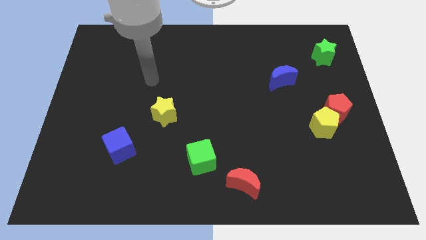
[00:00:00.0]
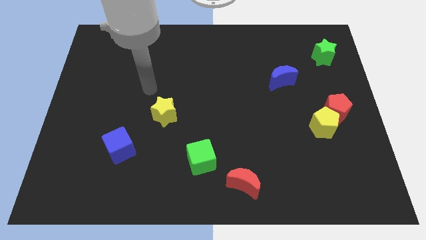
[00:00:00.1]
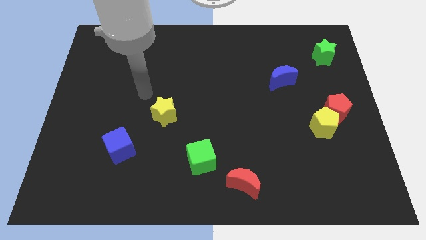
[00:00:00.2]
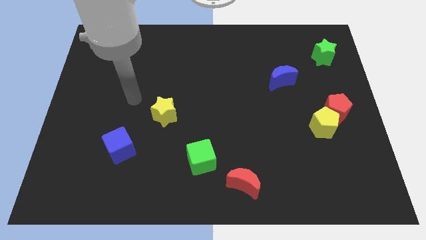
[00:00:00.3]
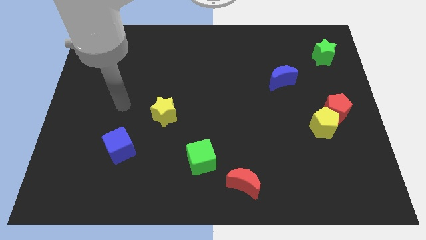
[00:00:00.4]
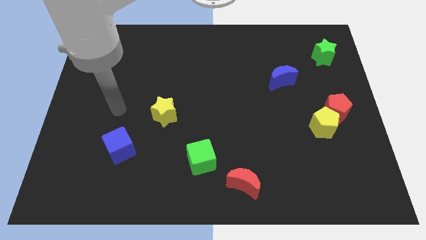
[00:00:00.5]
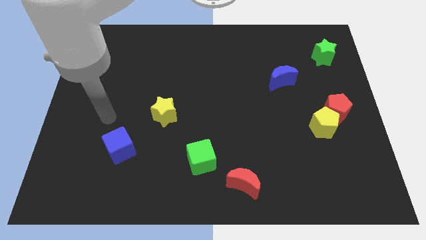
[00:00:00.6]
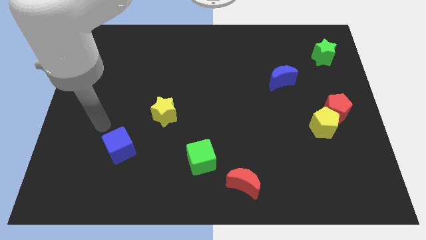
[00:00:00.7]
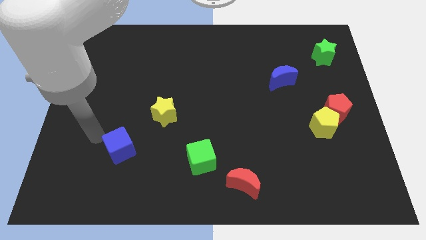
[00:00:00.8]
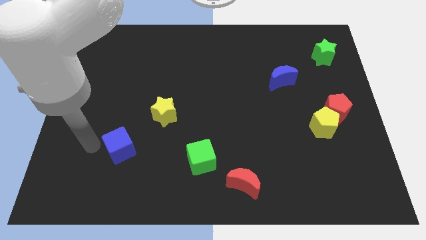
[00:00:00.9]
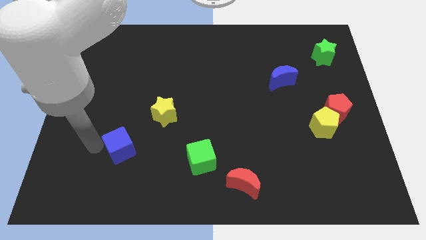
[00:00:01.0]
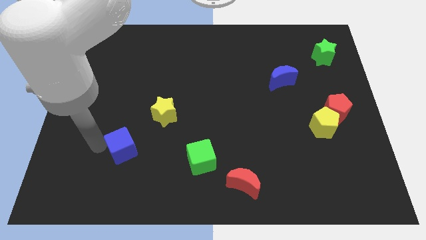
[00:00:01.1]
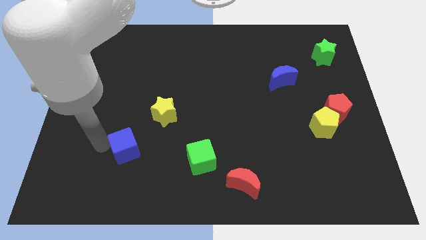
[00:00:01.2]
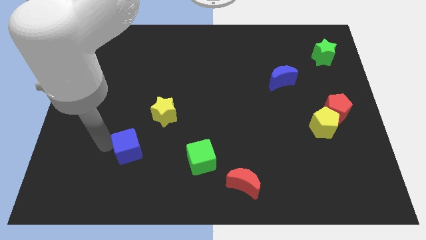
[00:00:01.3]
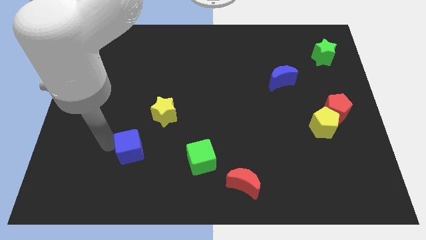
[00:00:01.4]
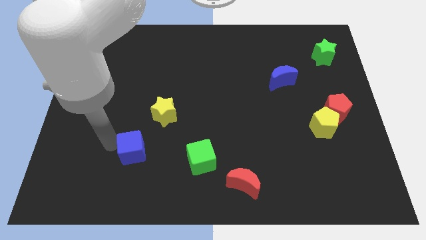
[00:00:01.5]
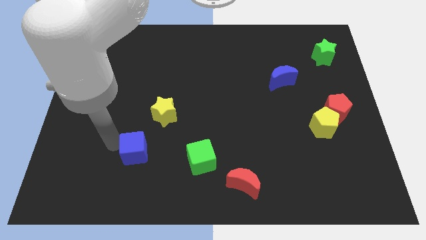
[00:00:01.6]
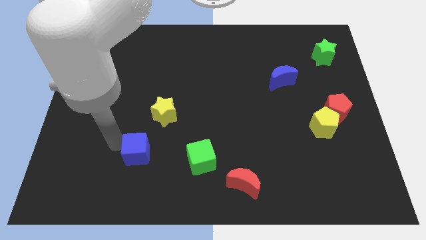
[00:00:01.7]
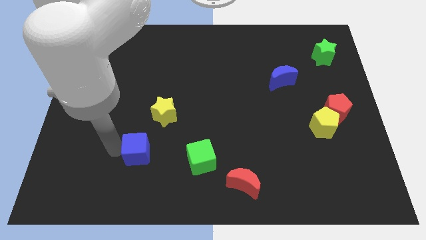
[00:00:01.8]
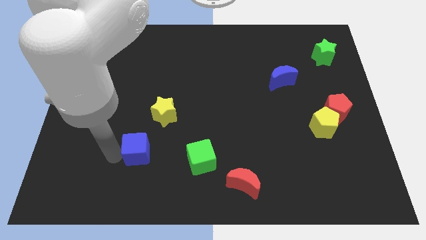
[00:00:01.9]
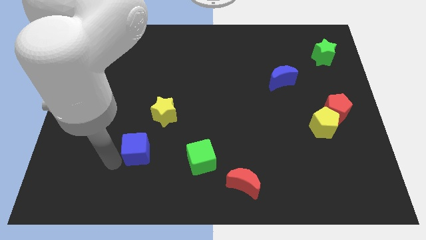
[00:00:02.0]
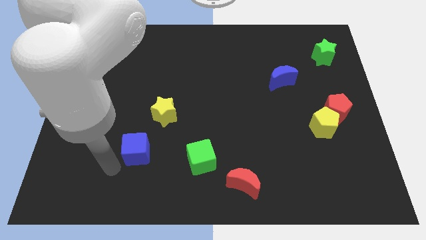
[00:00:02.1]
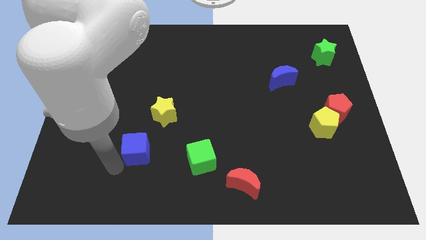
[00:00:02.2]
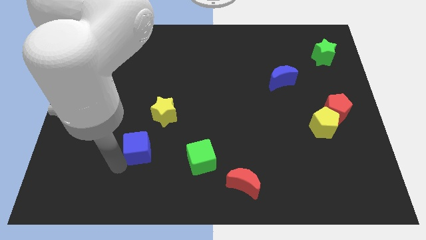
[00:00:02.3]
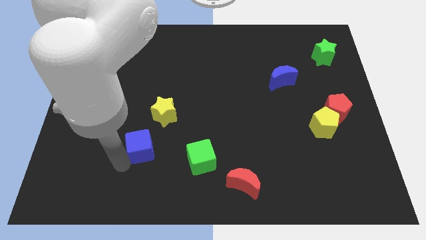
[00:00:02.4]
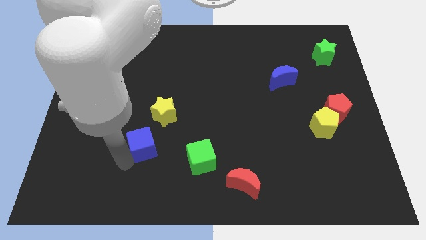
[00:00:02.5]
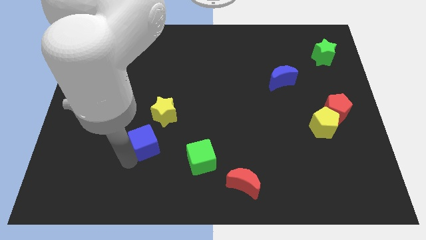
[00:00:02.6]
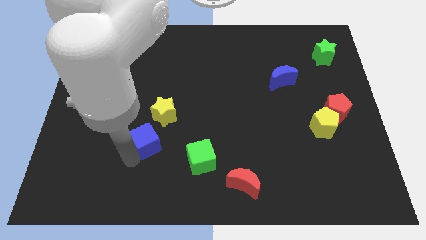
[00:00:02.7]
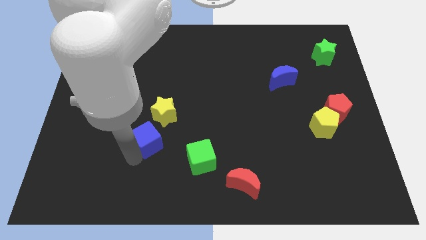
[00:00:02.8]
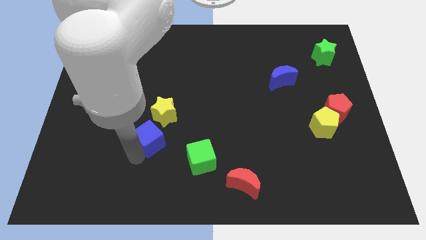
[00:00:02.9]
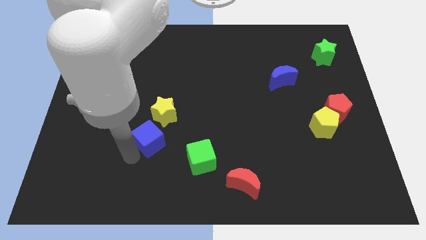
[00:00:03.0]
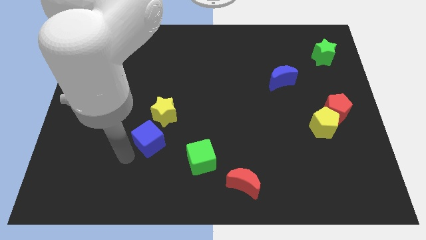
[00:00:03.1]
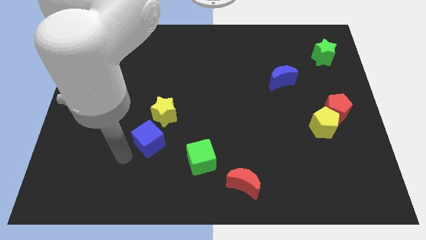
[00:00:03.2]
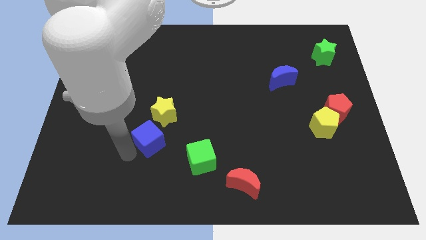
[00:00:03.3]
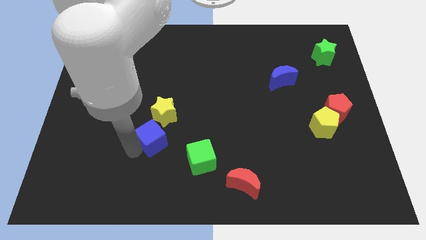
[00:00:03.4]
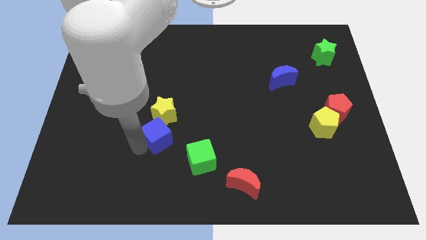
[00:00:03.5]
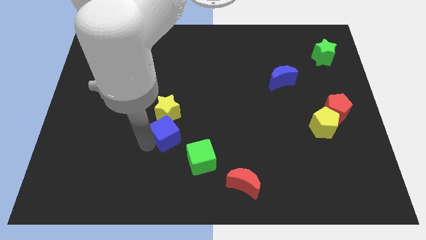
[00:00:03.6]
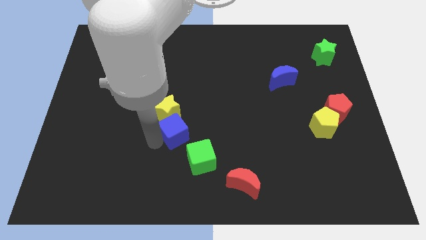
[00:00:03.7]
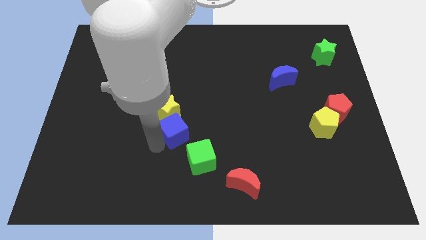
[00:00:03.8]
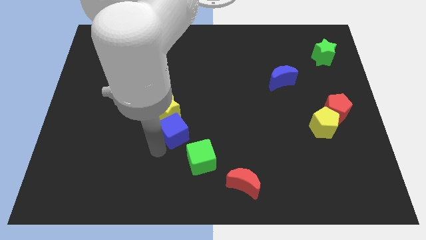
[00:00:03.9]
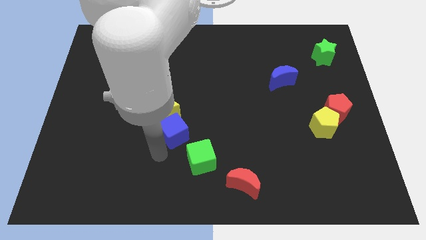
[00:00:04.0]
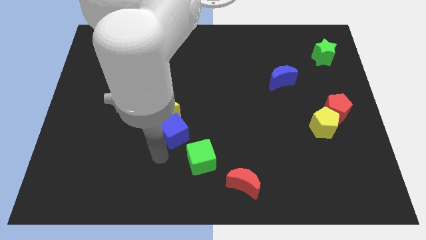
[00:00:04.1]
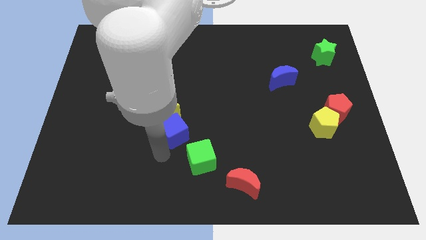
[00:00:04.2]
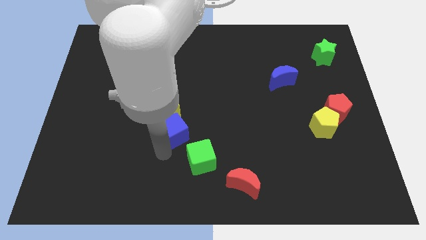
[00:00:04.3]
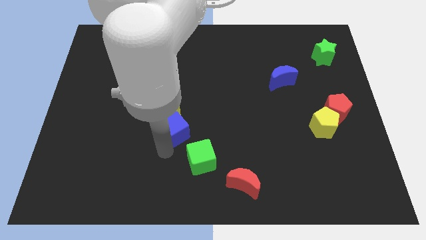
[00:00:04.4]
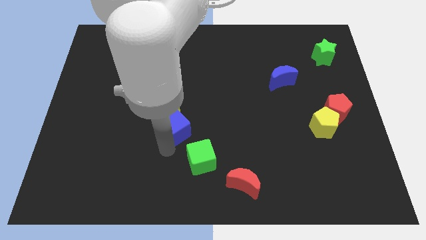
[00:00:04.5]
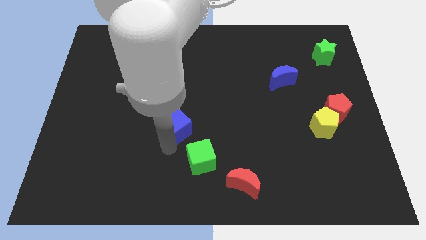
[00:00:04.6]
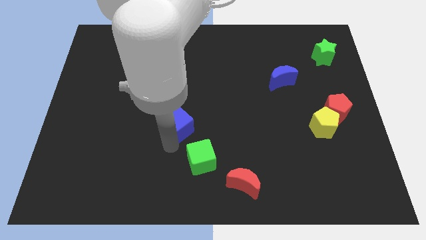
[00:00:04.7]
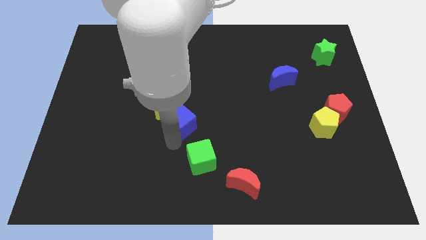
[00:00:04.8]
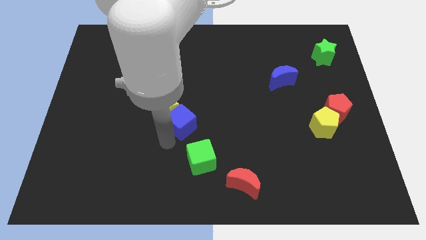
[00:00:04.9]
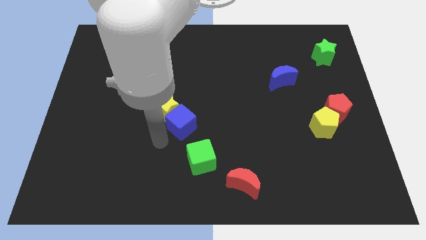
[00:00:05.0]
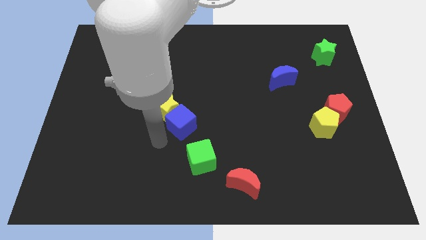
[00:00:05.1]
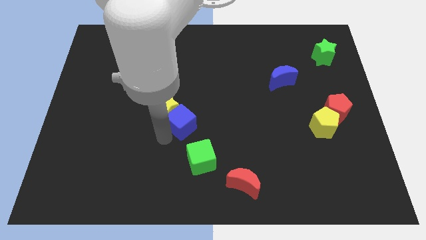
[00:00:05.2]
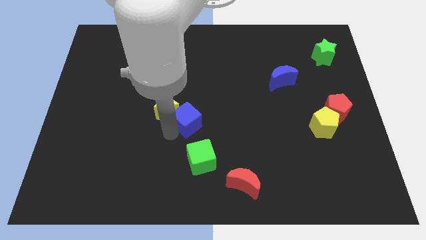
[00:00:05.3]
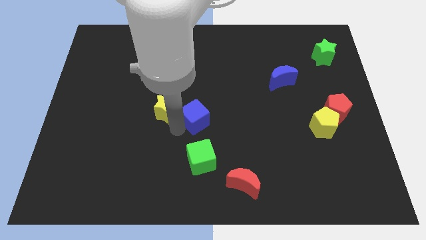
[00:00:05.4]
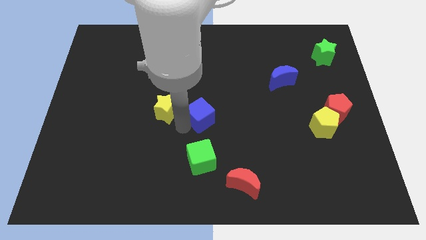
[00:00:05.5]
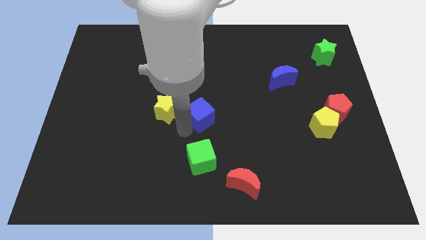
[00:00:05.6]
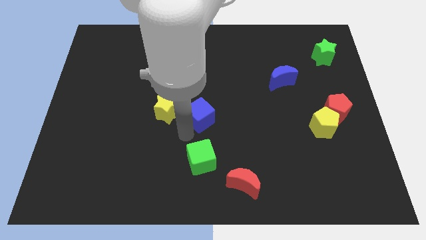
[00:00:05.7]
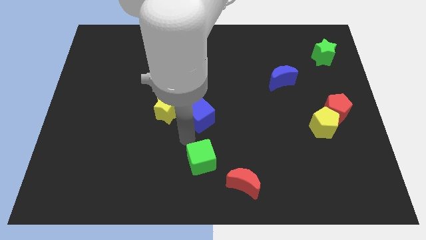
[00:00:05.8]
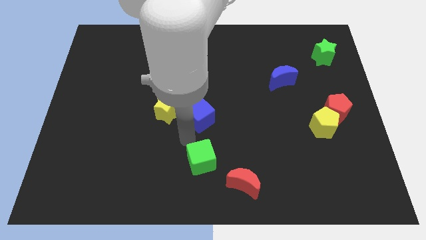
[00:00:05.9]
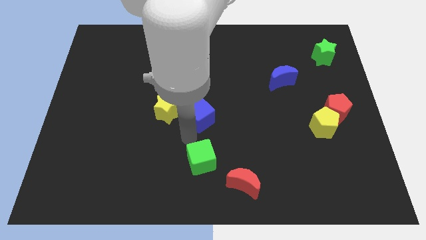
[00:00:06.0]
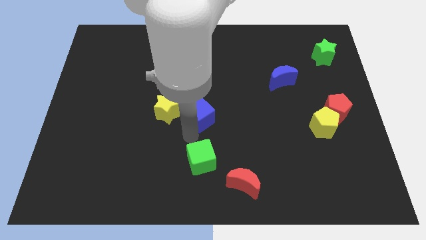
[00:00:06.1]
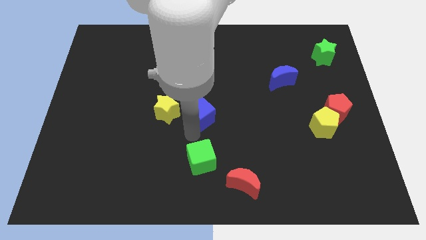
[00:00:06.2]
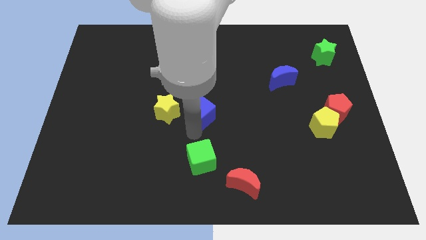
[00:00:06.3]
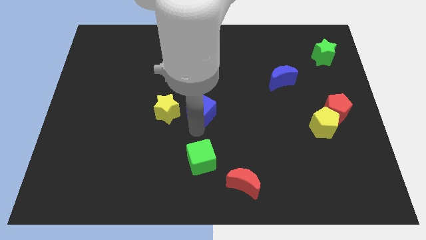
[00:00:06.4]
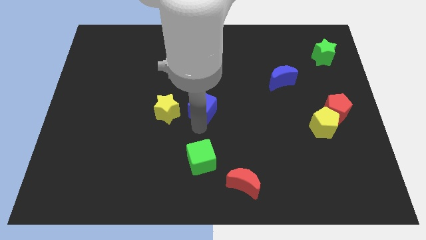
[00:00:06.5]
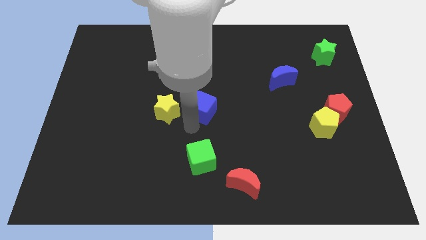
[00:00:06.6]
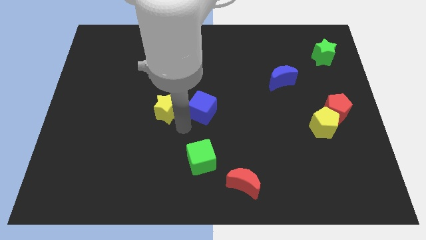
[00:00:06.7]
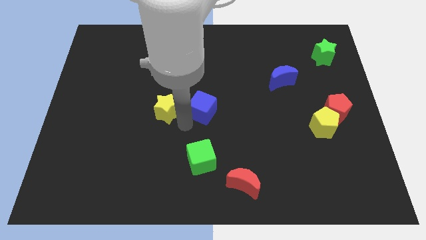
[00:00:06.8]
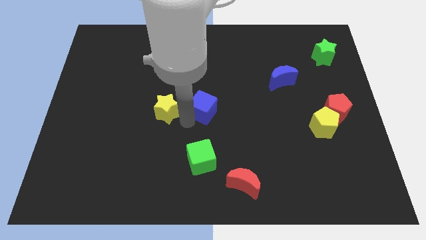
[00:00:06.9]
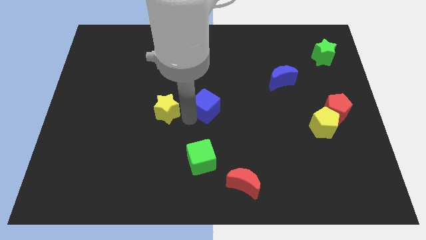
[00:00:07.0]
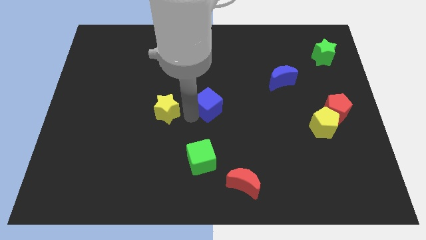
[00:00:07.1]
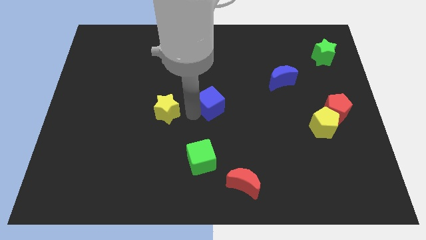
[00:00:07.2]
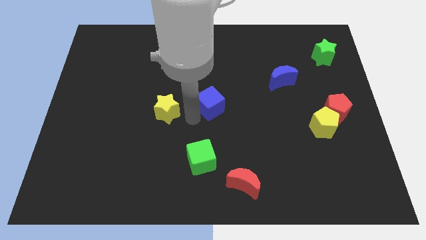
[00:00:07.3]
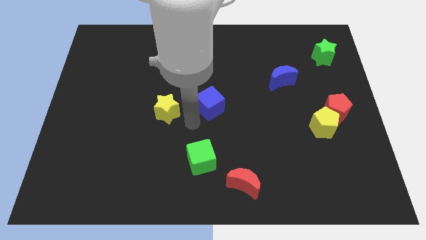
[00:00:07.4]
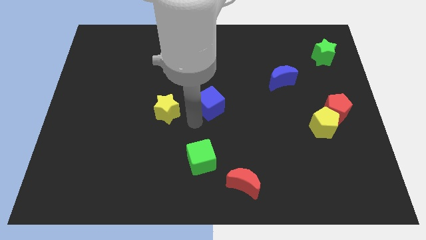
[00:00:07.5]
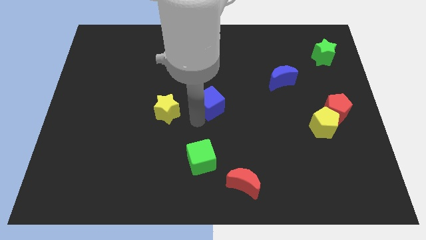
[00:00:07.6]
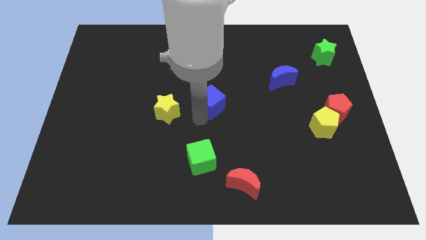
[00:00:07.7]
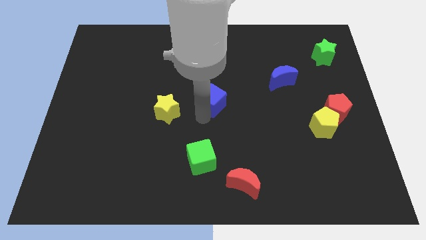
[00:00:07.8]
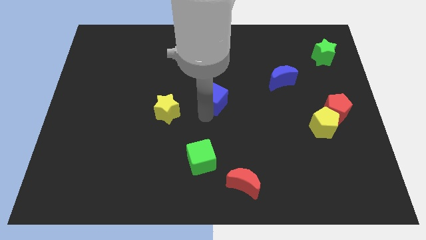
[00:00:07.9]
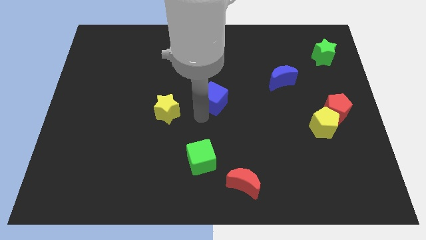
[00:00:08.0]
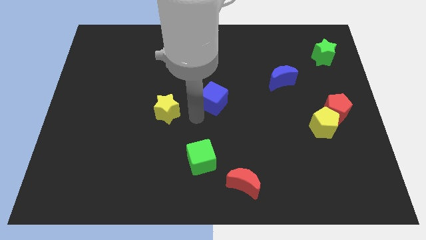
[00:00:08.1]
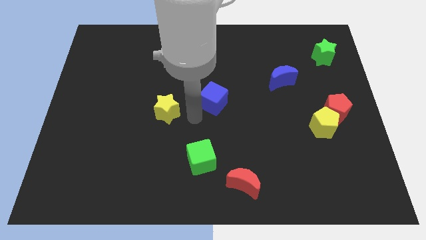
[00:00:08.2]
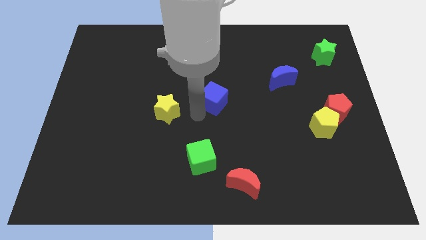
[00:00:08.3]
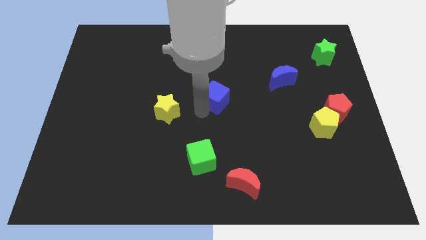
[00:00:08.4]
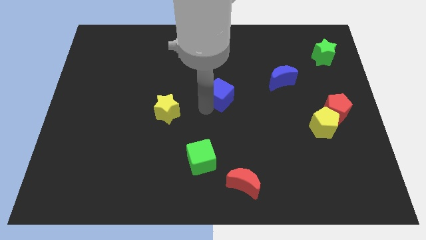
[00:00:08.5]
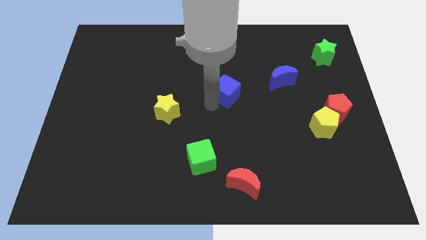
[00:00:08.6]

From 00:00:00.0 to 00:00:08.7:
push the blue cube just left of the blue moon
